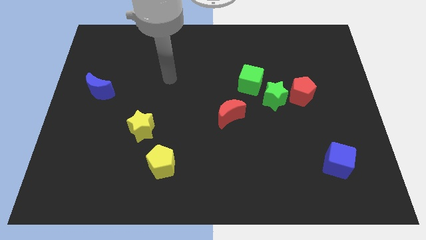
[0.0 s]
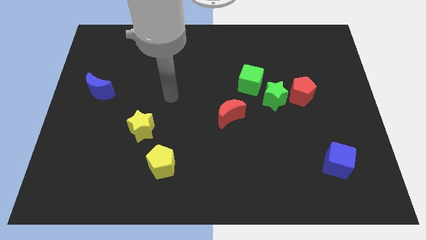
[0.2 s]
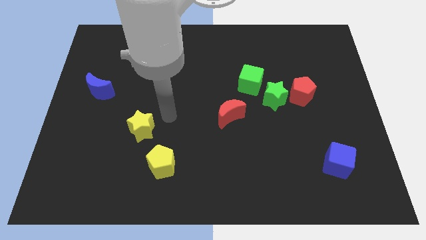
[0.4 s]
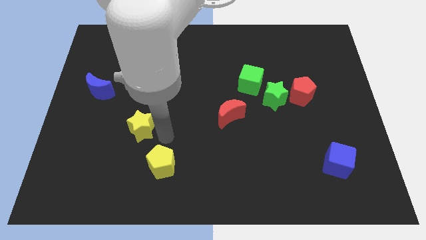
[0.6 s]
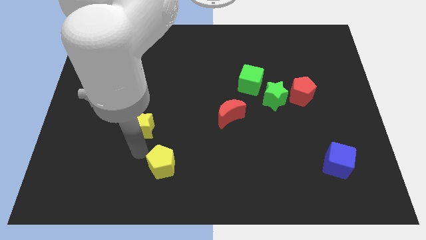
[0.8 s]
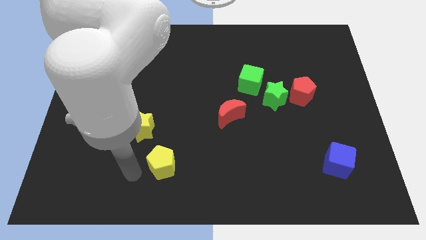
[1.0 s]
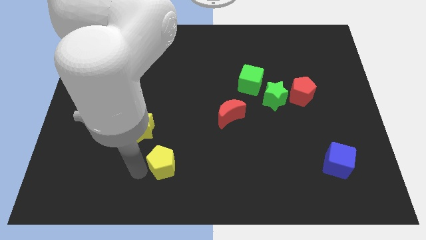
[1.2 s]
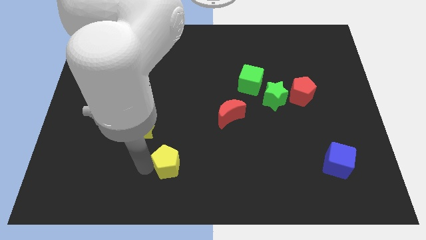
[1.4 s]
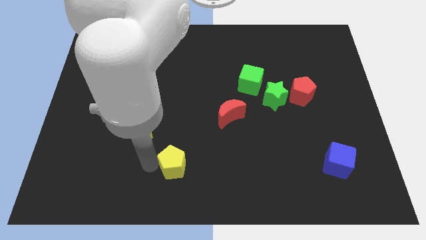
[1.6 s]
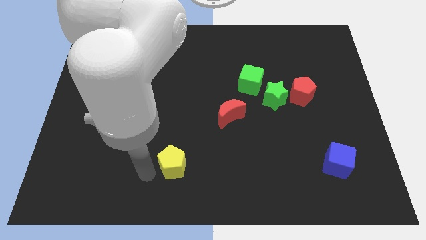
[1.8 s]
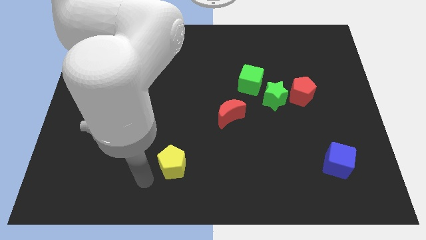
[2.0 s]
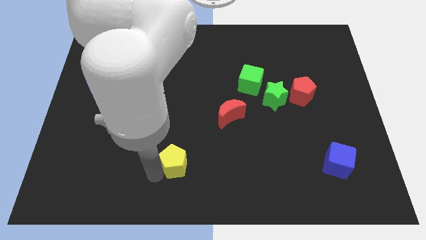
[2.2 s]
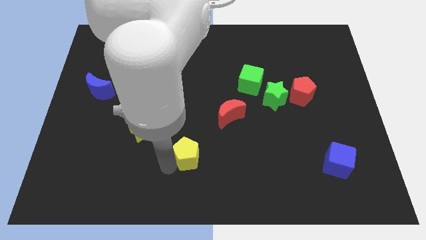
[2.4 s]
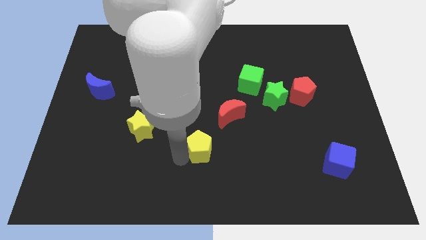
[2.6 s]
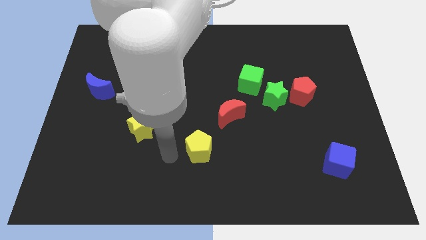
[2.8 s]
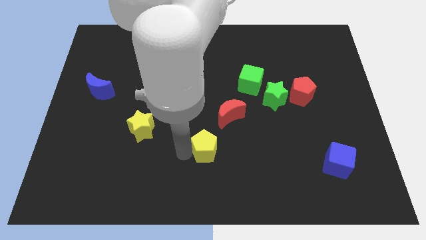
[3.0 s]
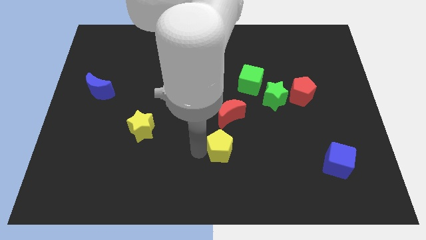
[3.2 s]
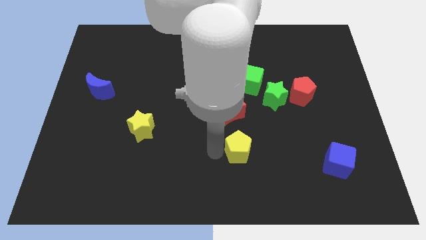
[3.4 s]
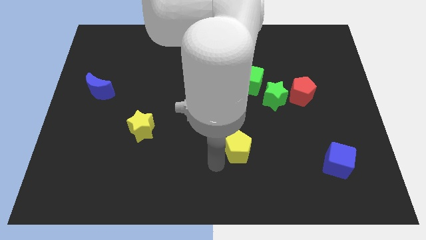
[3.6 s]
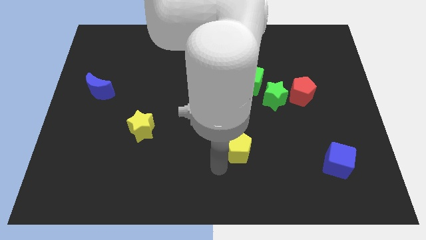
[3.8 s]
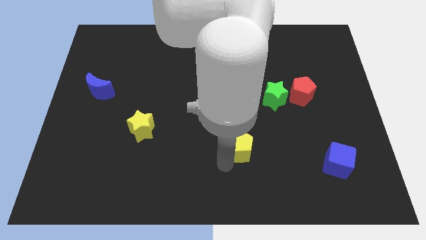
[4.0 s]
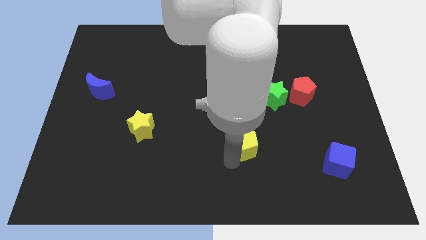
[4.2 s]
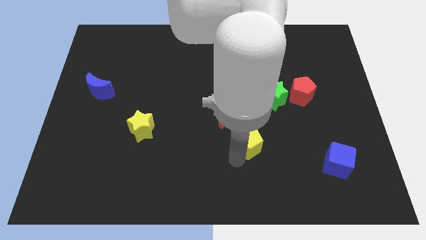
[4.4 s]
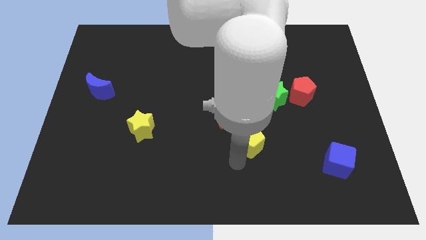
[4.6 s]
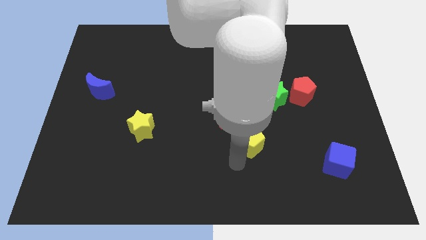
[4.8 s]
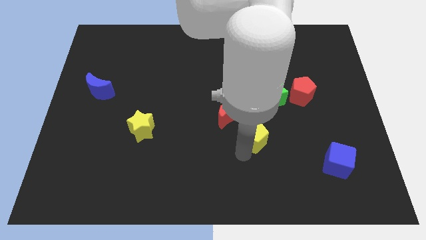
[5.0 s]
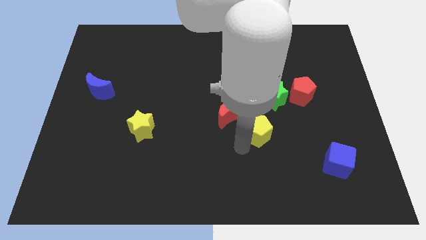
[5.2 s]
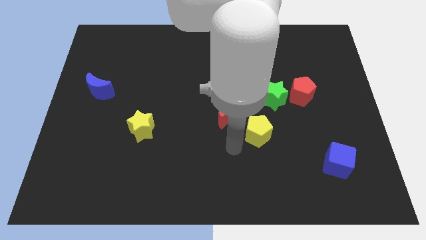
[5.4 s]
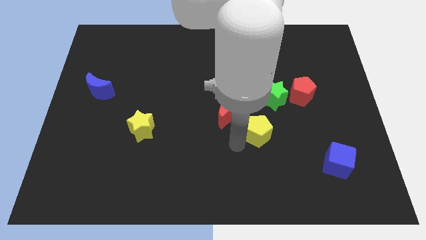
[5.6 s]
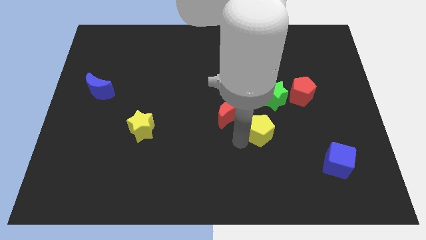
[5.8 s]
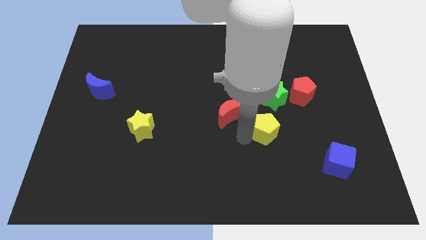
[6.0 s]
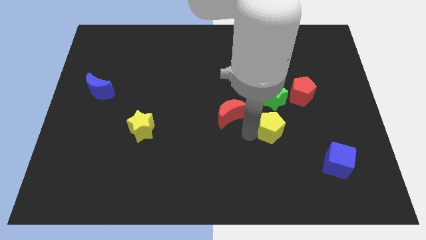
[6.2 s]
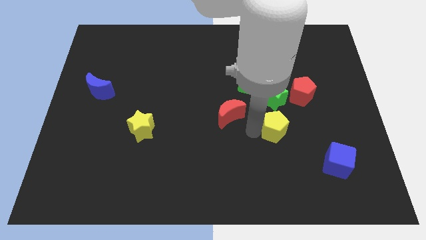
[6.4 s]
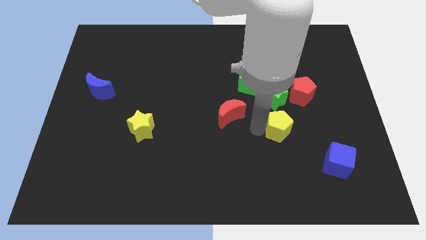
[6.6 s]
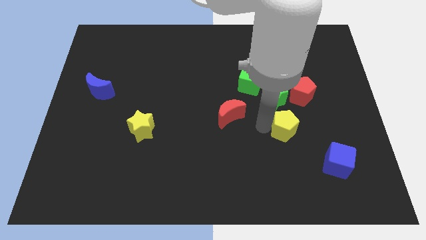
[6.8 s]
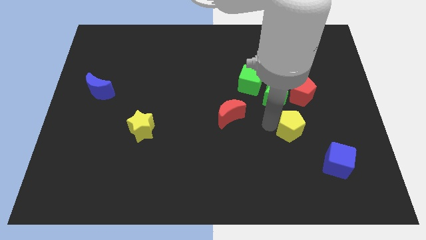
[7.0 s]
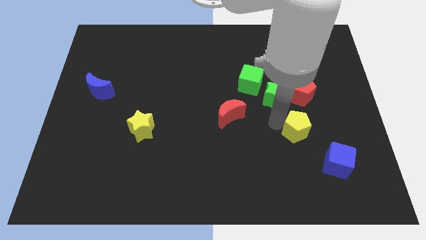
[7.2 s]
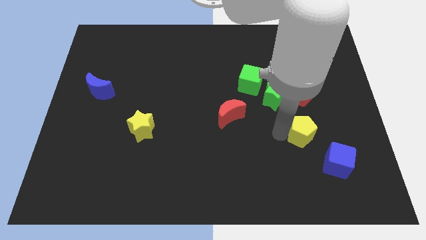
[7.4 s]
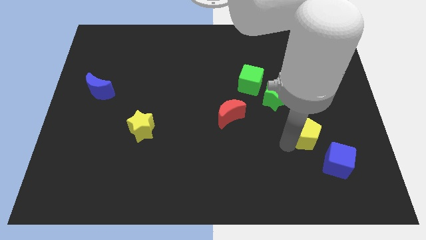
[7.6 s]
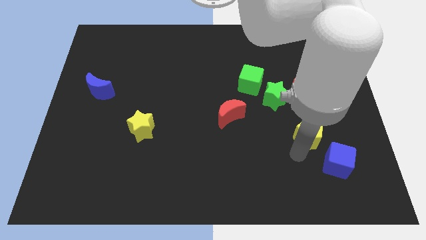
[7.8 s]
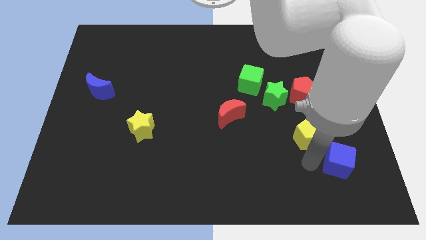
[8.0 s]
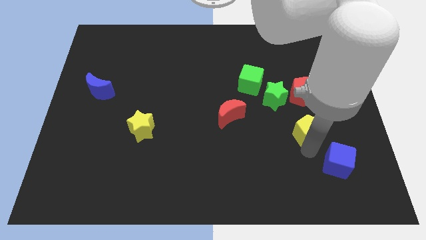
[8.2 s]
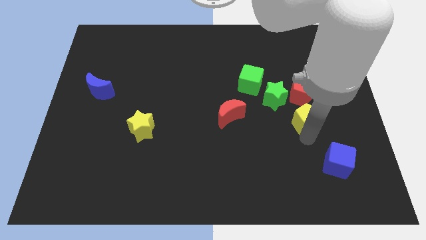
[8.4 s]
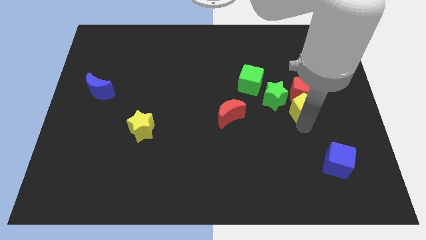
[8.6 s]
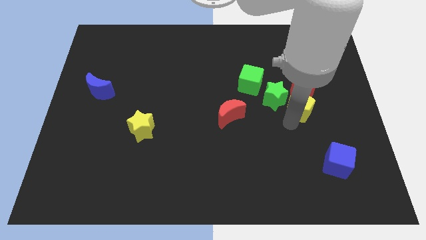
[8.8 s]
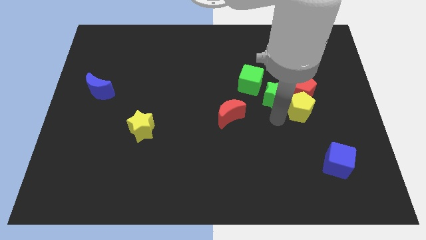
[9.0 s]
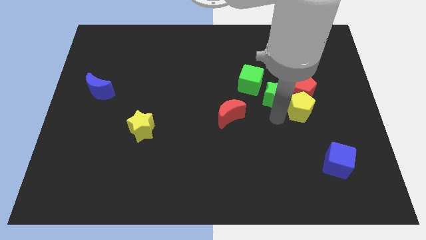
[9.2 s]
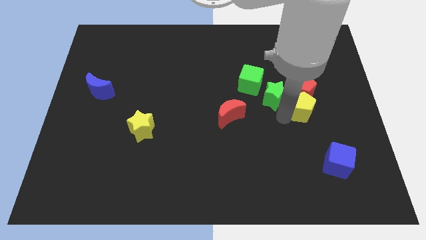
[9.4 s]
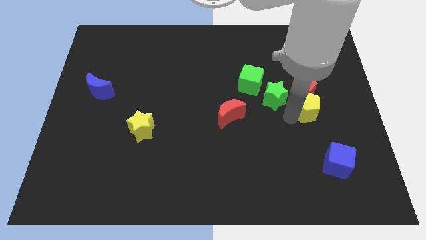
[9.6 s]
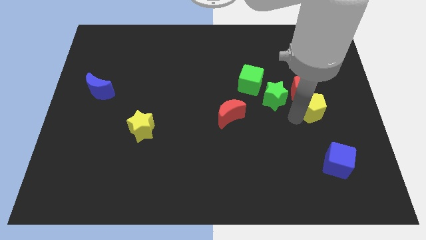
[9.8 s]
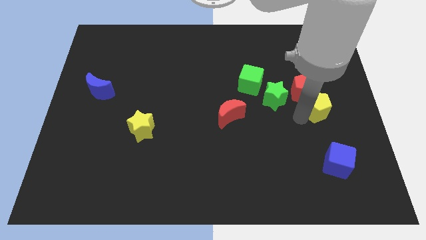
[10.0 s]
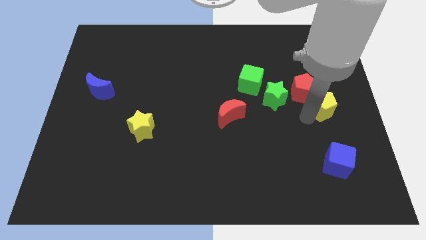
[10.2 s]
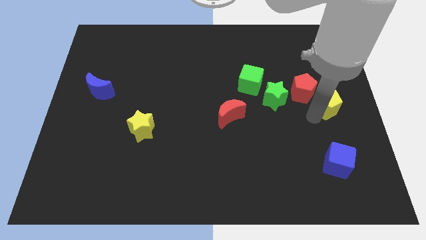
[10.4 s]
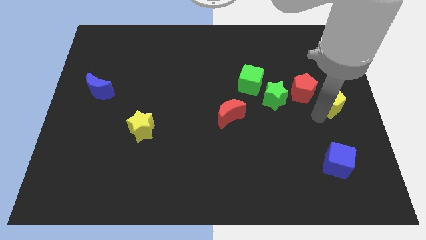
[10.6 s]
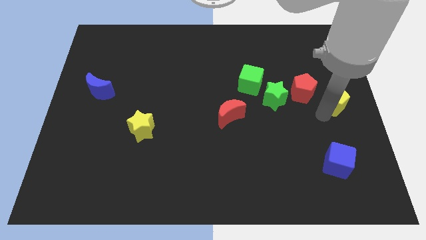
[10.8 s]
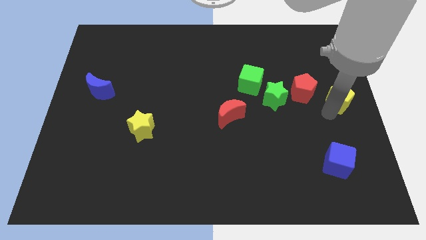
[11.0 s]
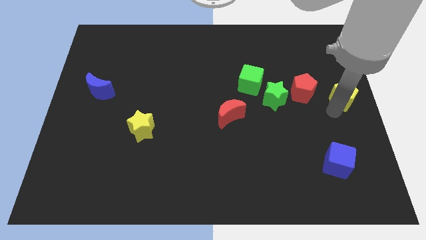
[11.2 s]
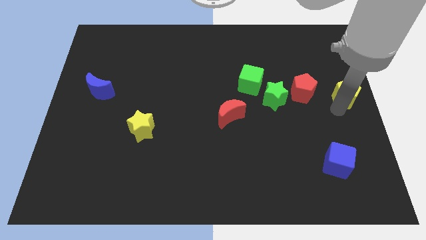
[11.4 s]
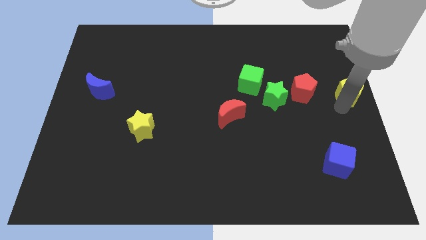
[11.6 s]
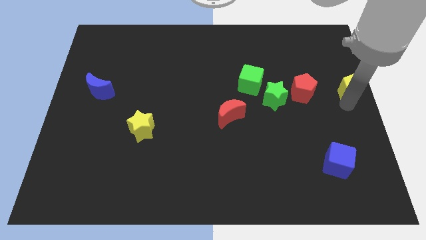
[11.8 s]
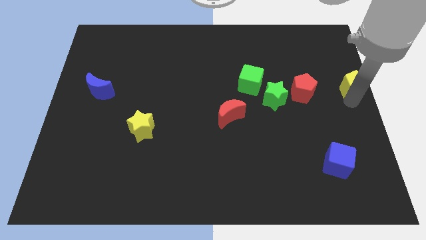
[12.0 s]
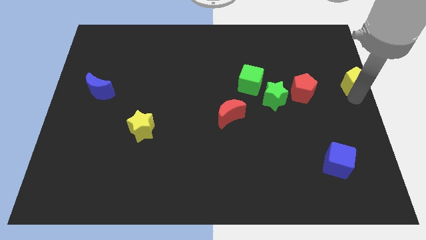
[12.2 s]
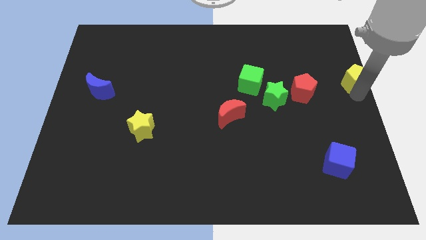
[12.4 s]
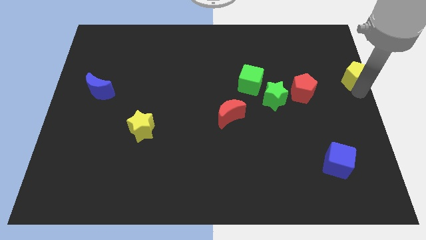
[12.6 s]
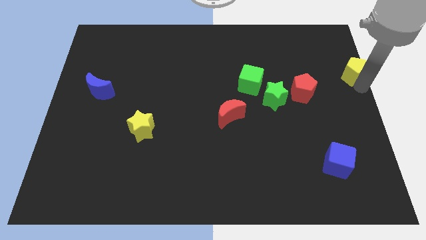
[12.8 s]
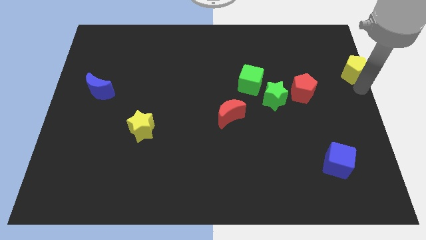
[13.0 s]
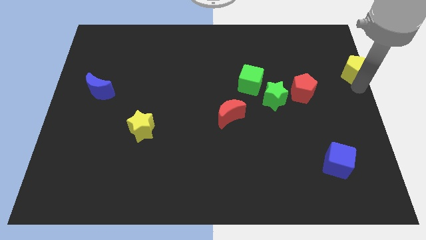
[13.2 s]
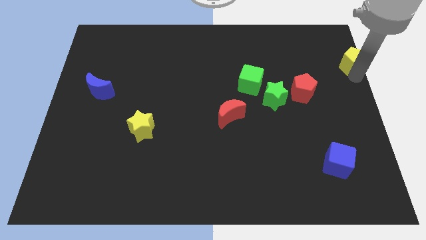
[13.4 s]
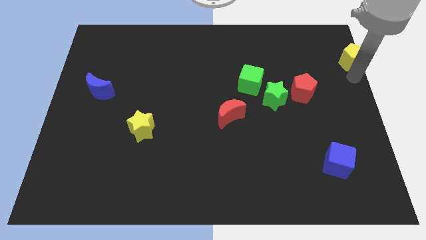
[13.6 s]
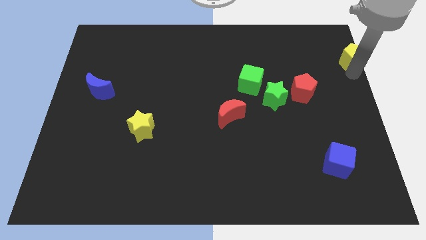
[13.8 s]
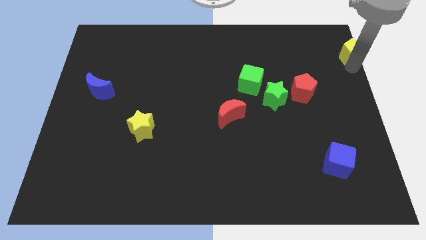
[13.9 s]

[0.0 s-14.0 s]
put the yellow pentagon to the top right of the board
